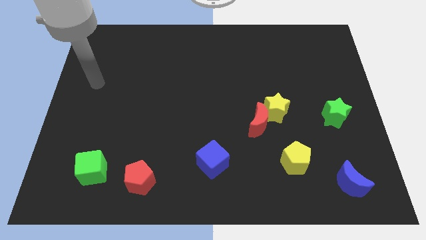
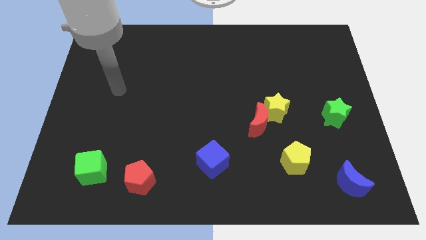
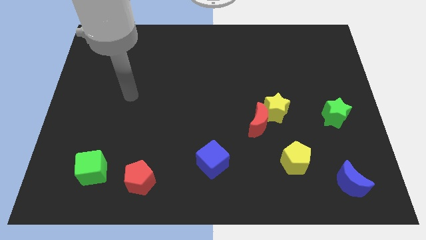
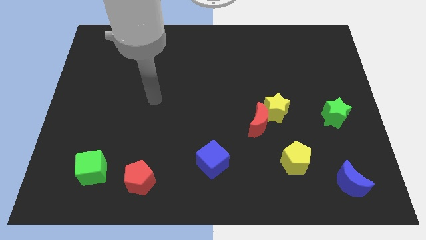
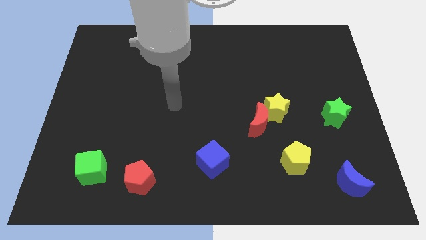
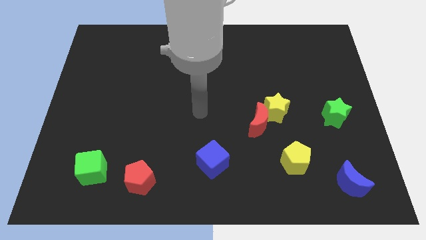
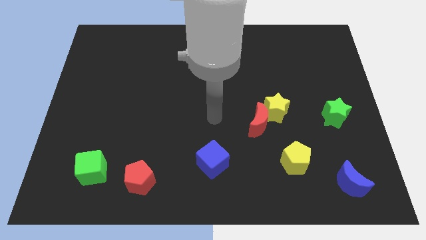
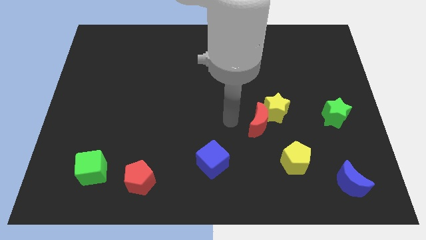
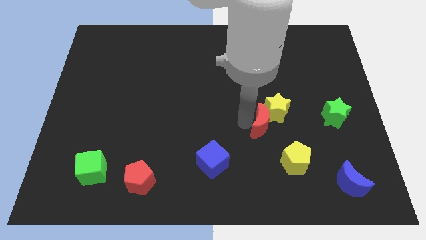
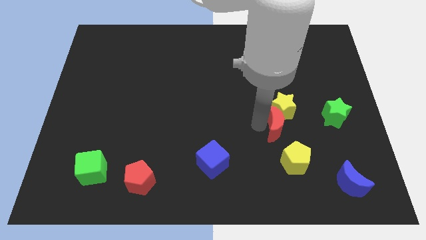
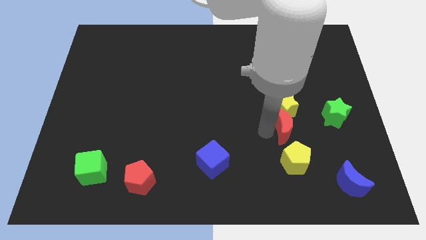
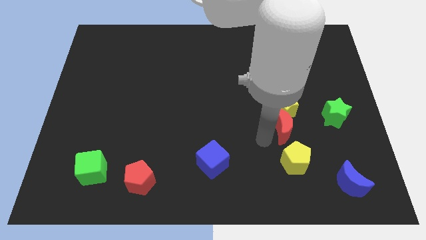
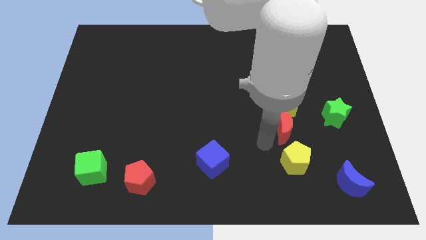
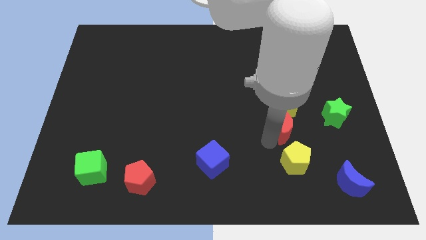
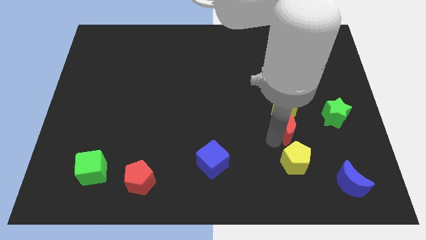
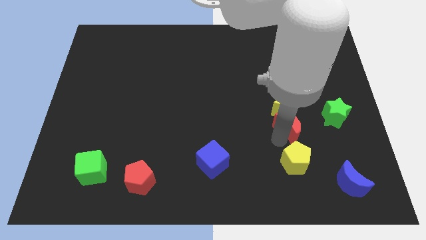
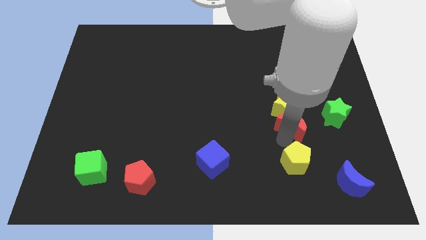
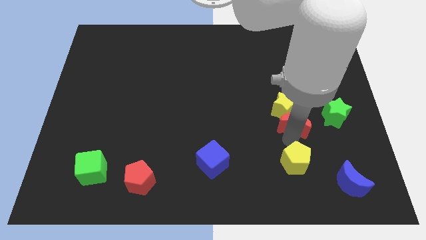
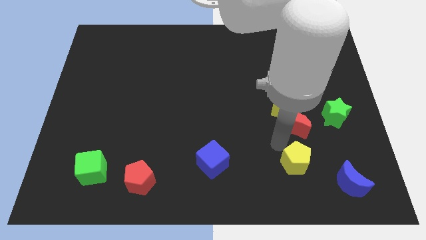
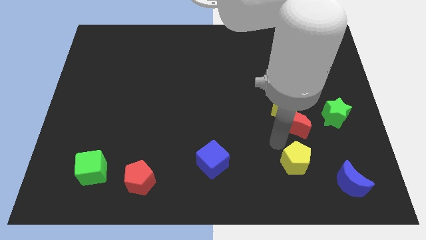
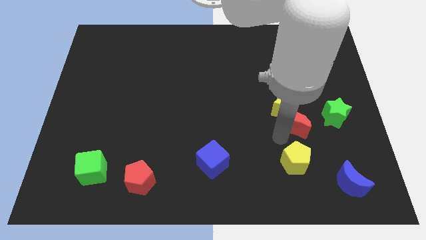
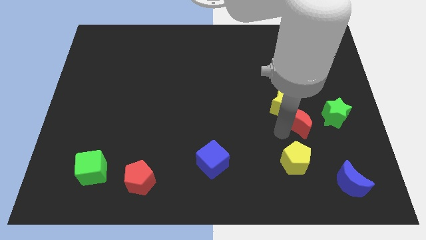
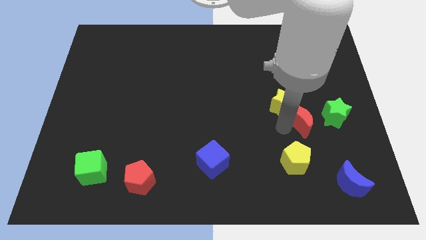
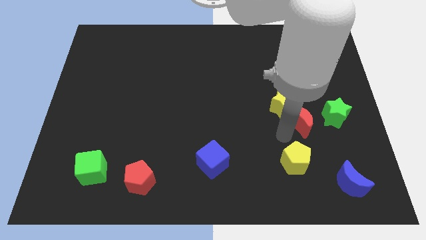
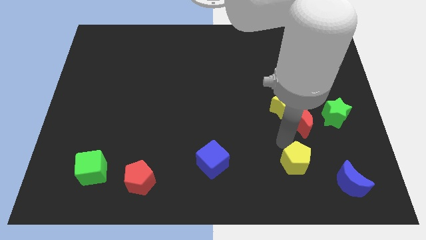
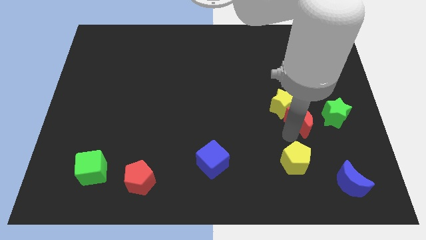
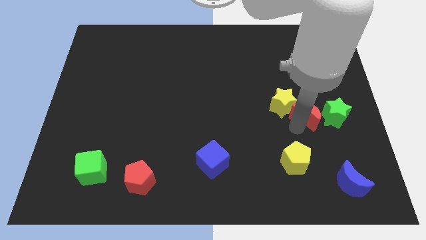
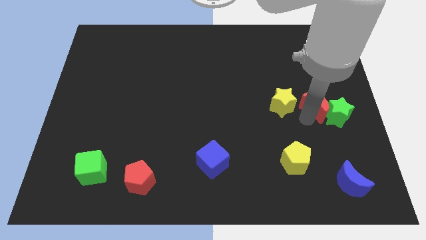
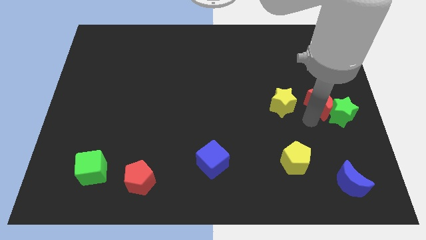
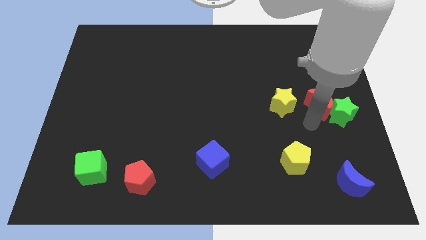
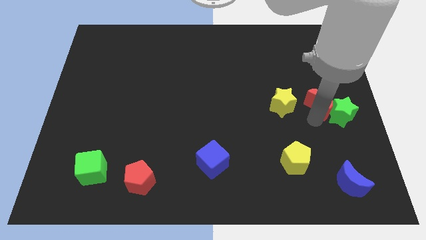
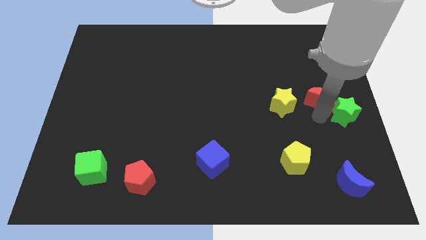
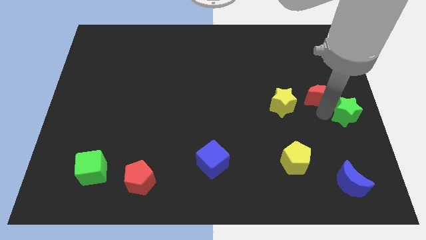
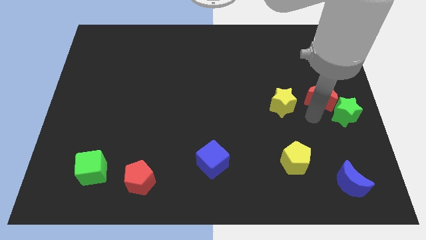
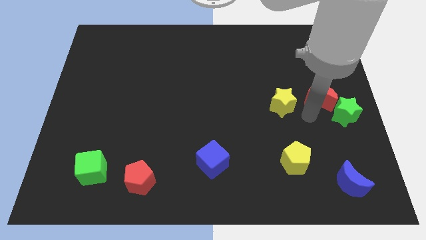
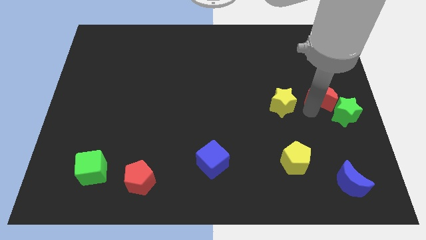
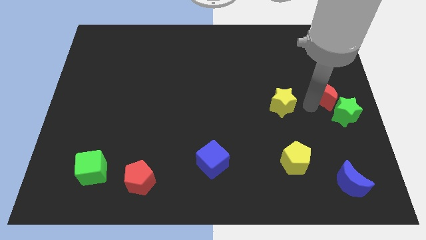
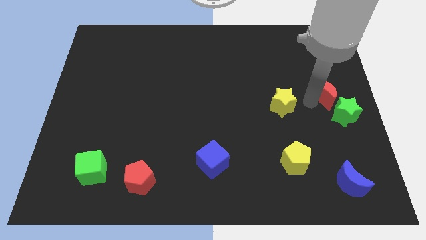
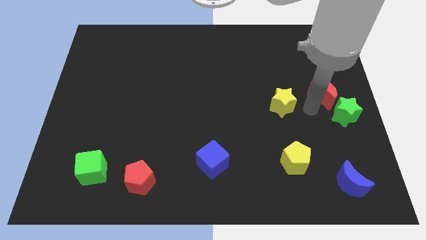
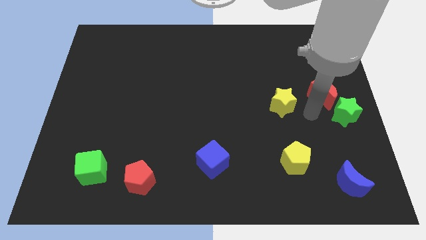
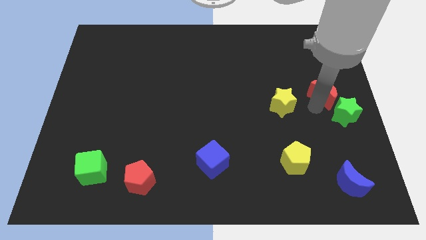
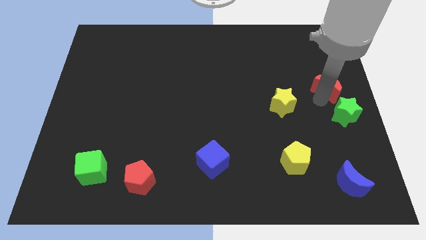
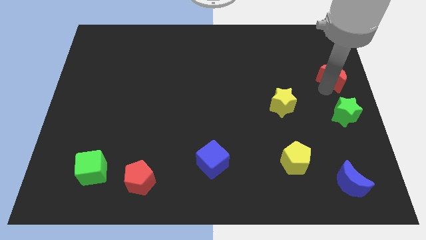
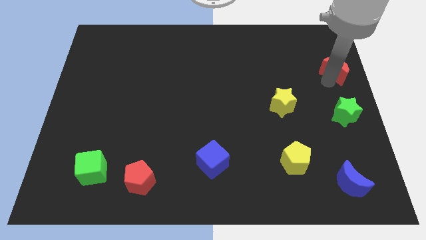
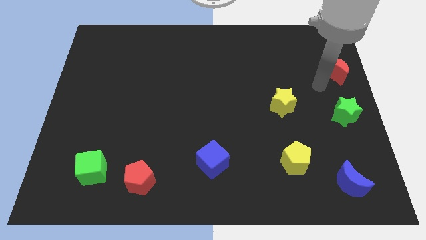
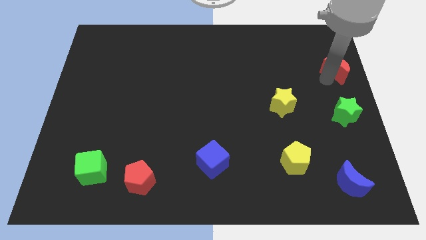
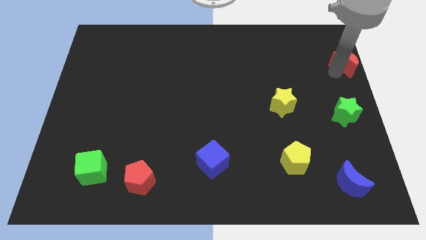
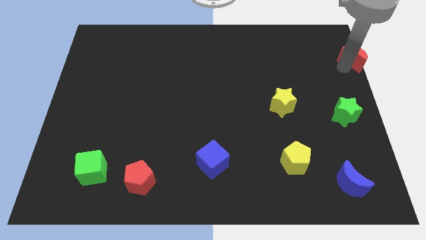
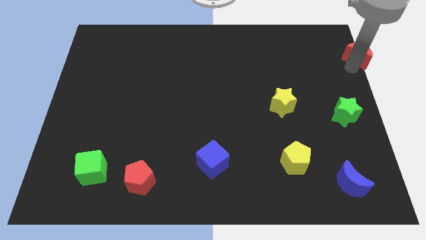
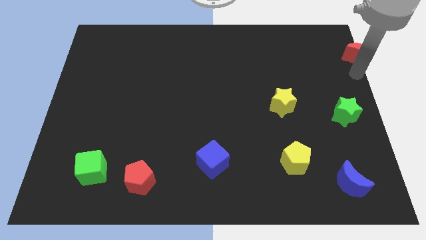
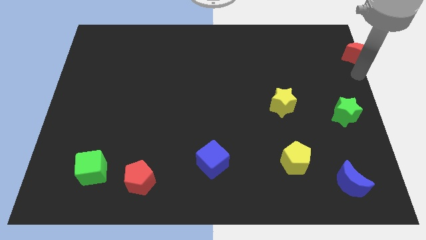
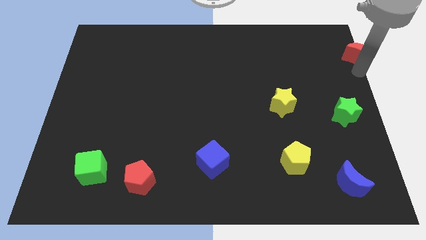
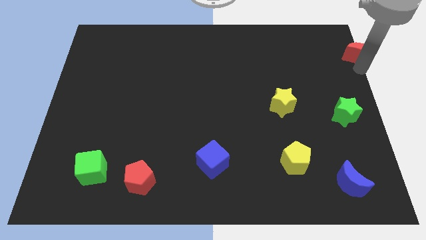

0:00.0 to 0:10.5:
put the red moon to the upper right corner
